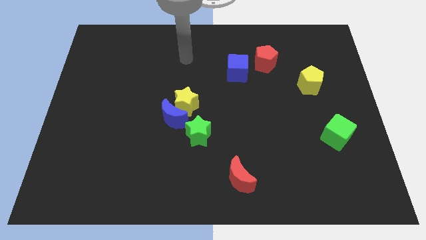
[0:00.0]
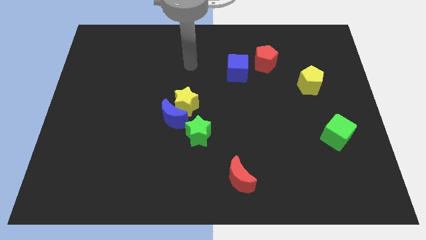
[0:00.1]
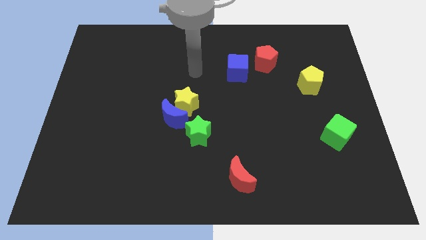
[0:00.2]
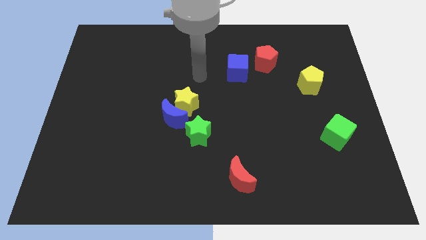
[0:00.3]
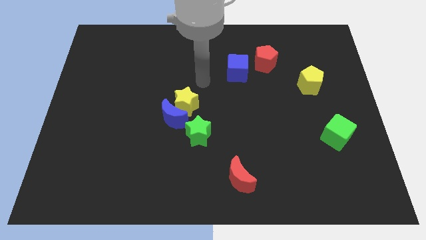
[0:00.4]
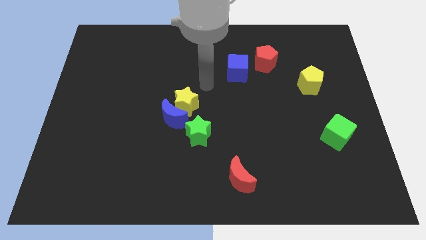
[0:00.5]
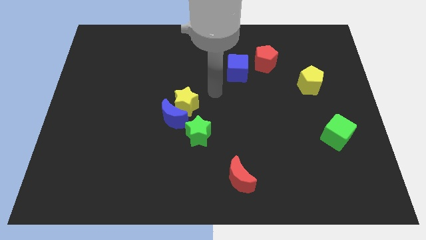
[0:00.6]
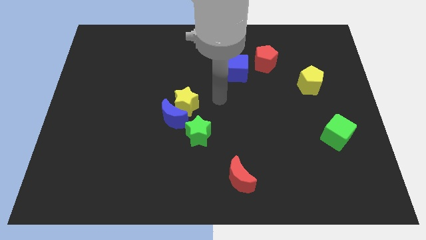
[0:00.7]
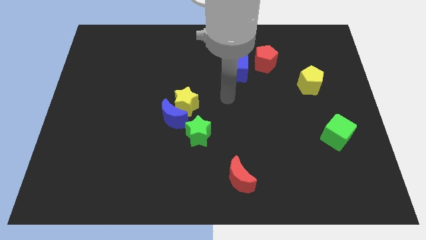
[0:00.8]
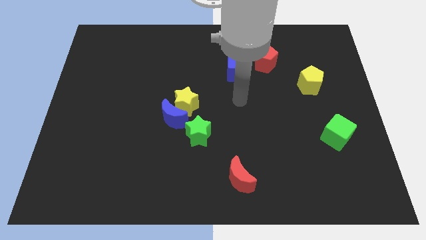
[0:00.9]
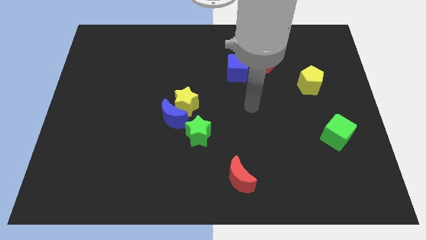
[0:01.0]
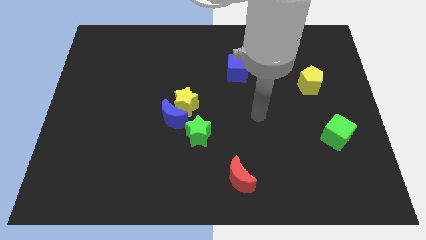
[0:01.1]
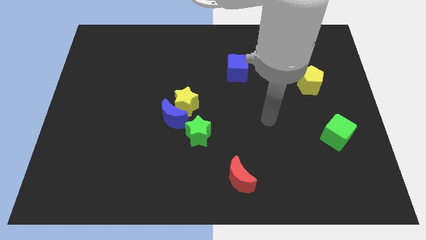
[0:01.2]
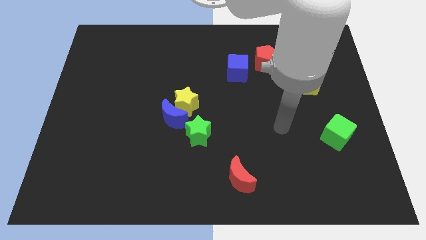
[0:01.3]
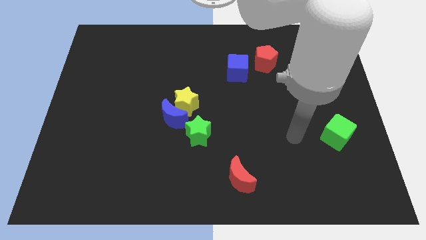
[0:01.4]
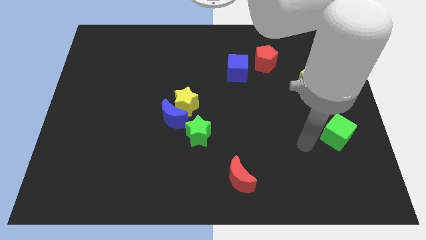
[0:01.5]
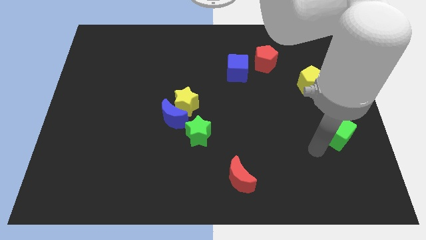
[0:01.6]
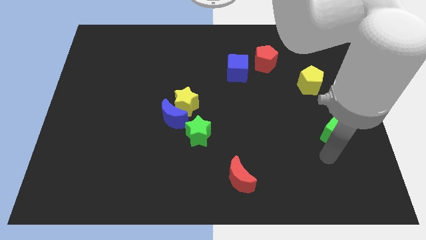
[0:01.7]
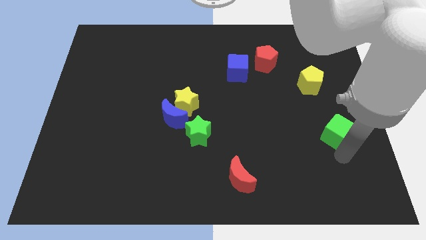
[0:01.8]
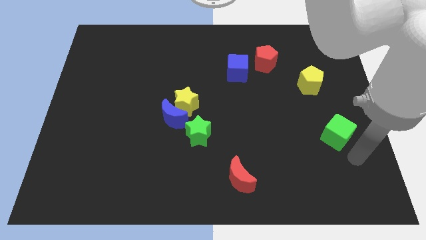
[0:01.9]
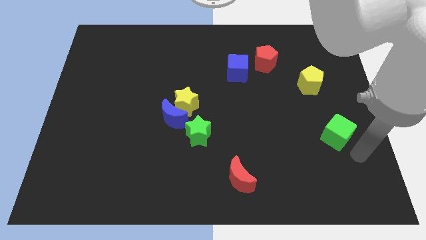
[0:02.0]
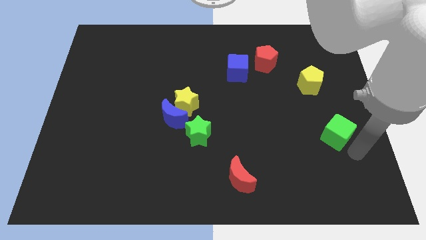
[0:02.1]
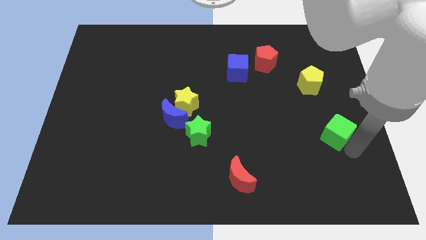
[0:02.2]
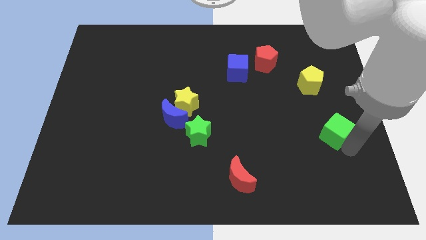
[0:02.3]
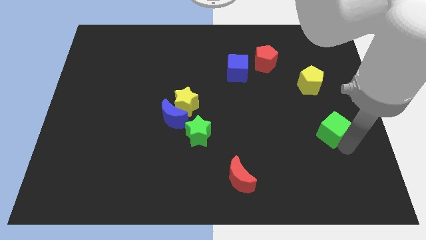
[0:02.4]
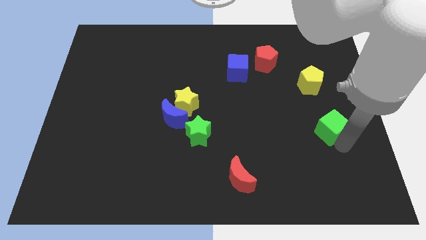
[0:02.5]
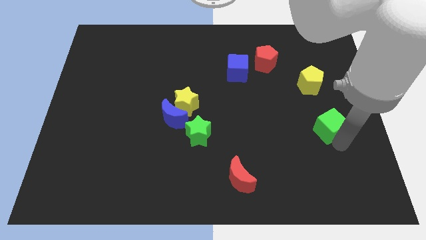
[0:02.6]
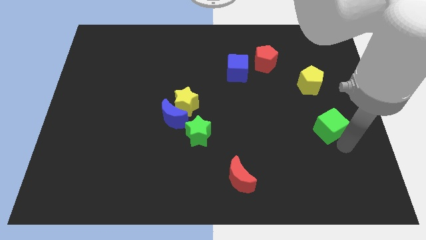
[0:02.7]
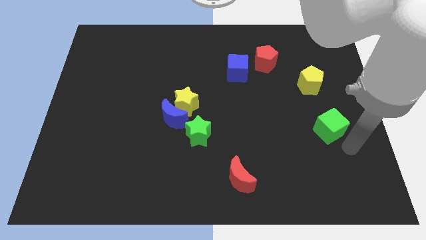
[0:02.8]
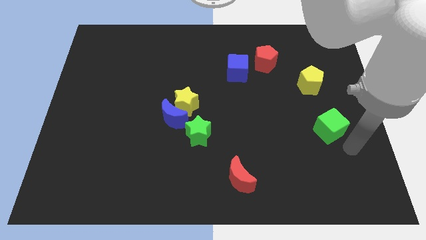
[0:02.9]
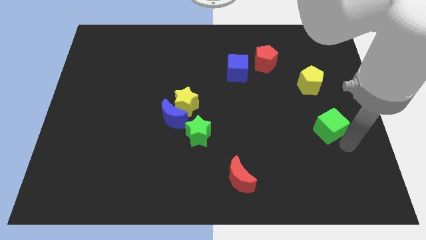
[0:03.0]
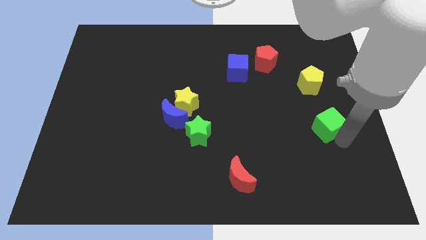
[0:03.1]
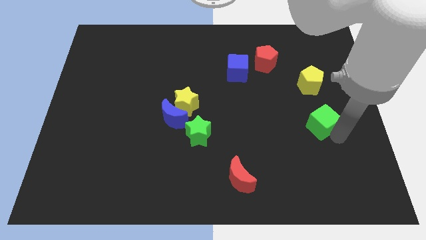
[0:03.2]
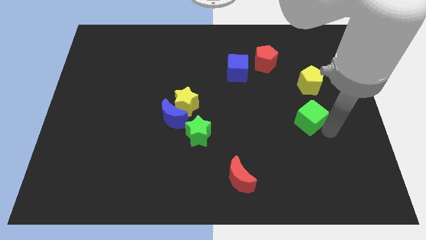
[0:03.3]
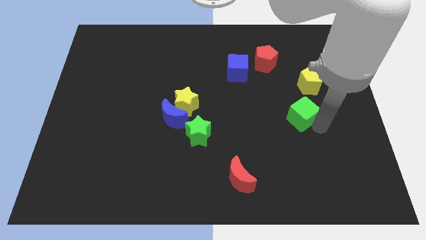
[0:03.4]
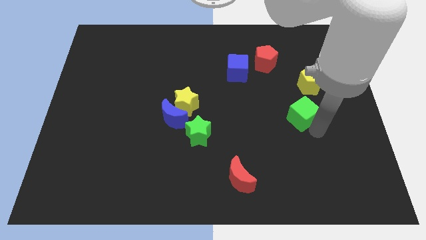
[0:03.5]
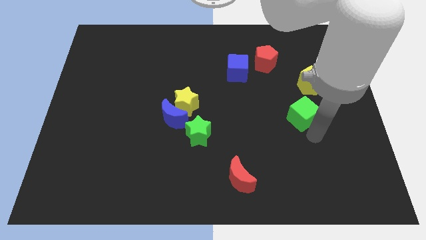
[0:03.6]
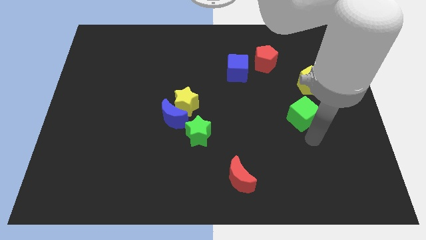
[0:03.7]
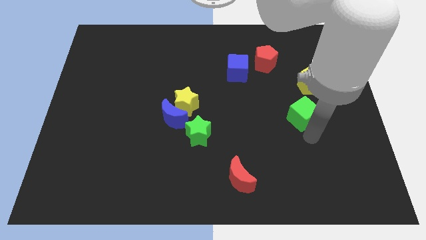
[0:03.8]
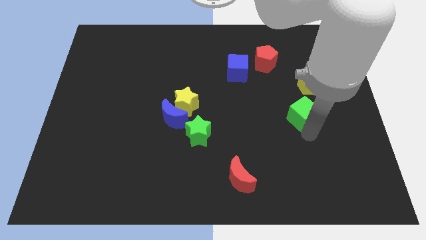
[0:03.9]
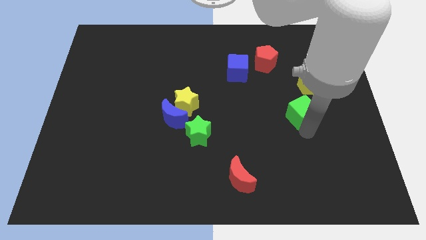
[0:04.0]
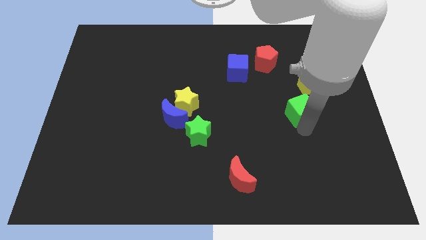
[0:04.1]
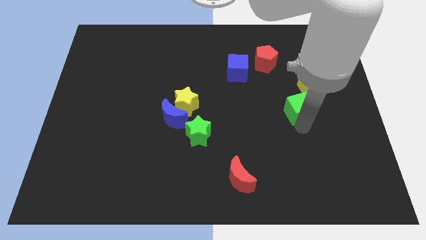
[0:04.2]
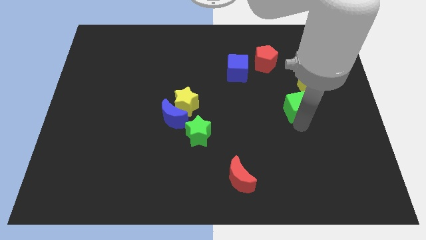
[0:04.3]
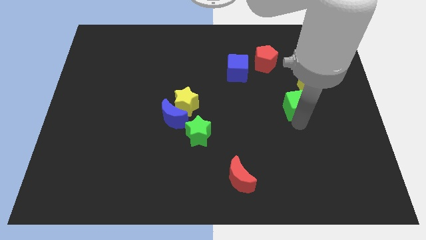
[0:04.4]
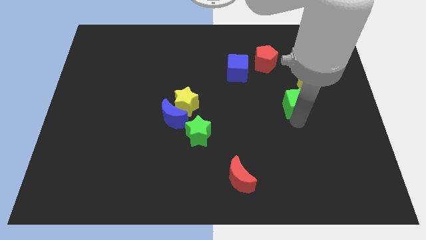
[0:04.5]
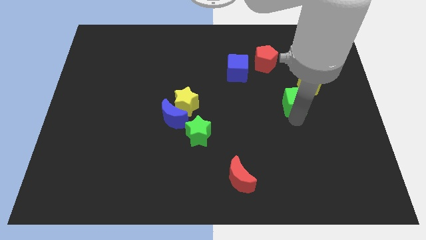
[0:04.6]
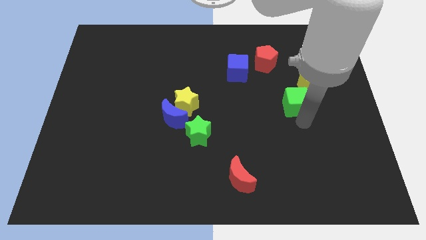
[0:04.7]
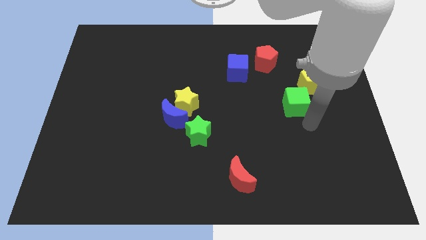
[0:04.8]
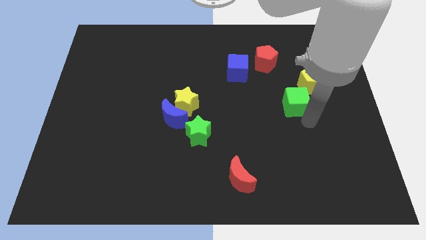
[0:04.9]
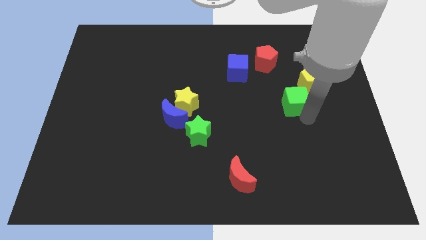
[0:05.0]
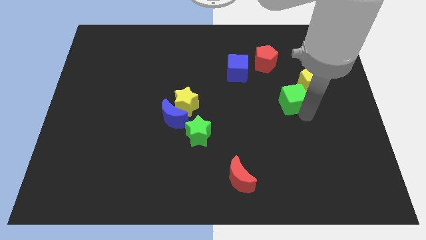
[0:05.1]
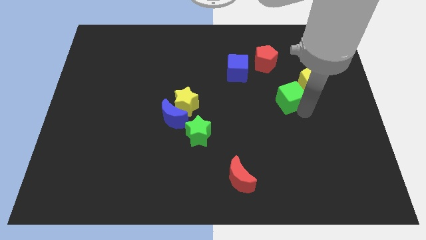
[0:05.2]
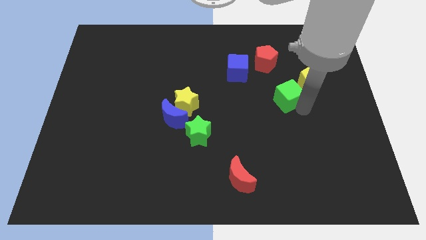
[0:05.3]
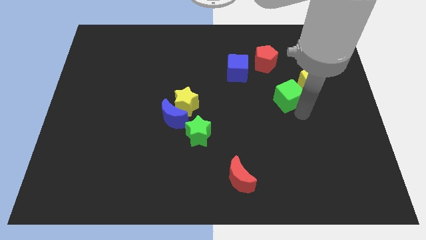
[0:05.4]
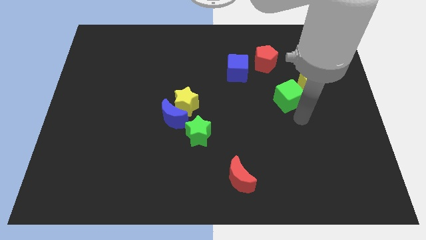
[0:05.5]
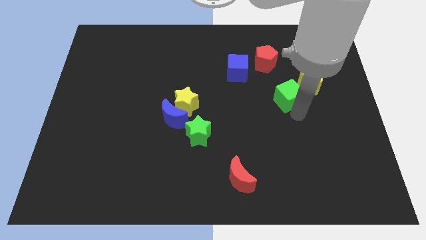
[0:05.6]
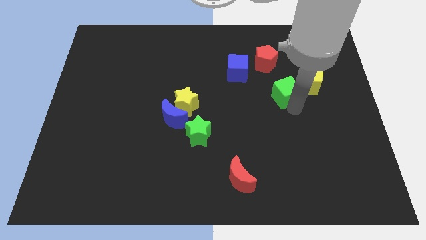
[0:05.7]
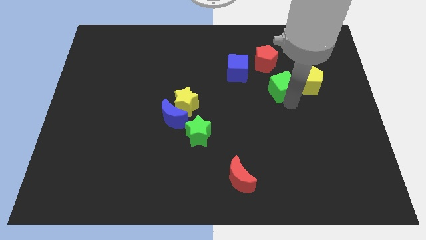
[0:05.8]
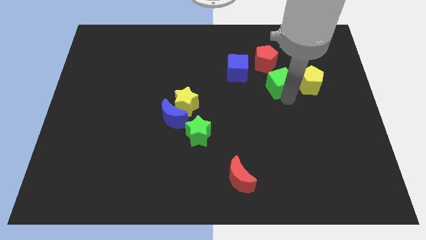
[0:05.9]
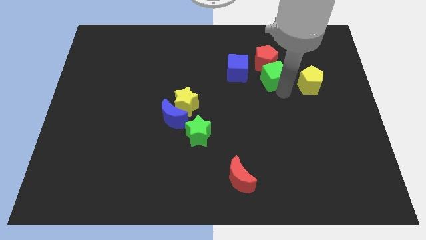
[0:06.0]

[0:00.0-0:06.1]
push the green cube close to the red pentagon

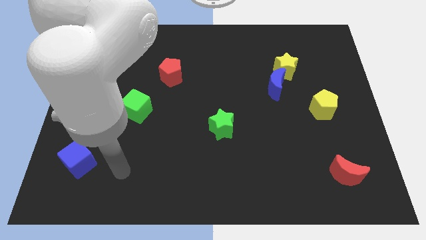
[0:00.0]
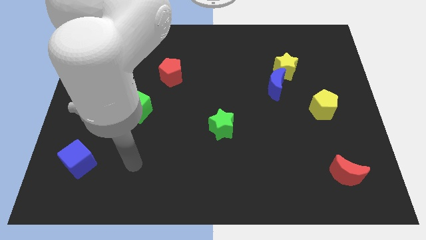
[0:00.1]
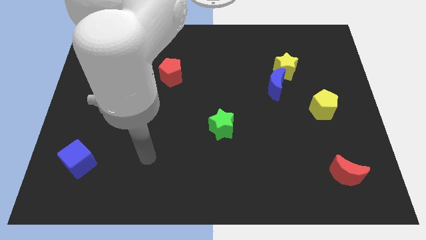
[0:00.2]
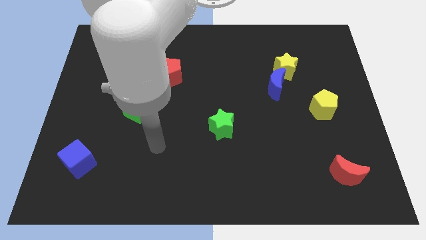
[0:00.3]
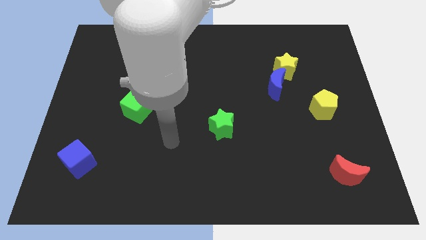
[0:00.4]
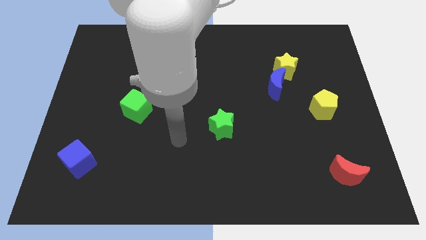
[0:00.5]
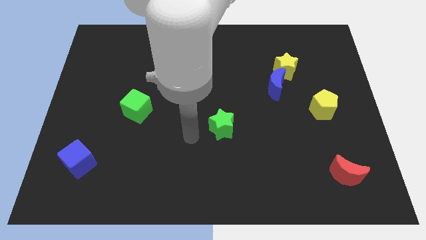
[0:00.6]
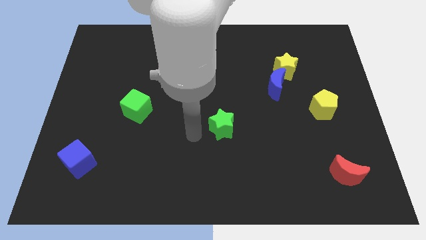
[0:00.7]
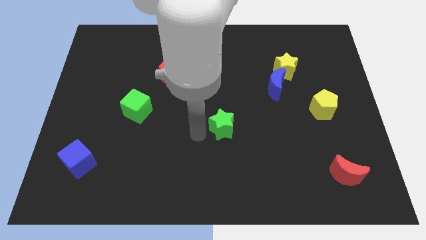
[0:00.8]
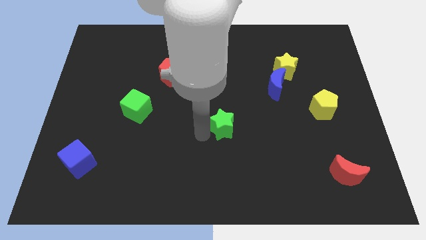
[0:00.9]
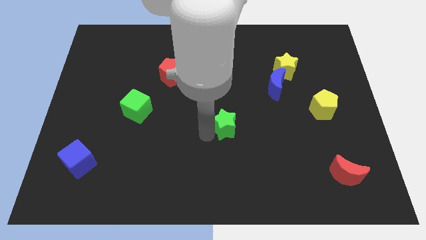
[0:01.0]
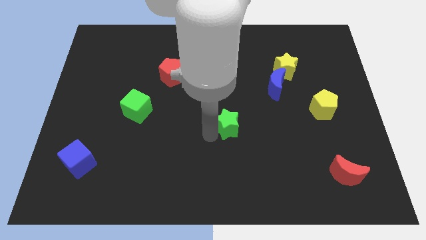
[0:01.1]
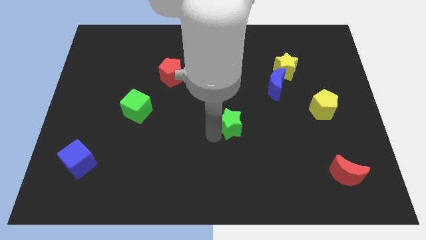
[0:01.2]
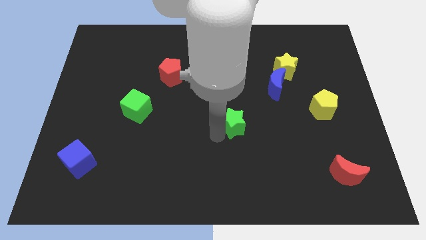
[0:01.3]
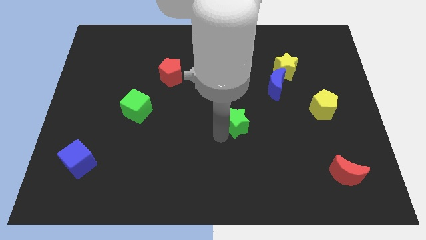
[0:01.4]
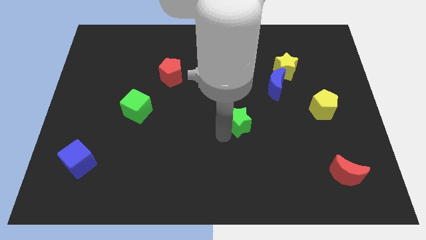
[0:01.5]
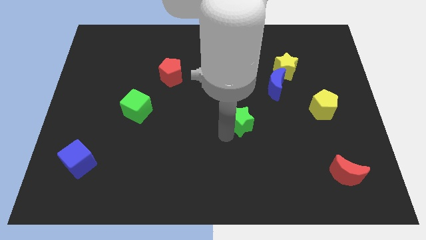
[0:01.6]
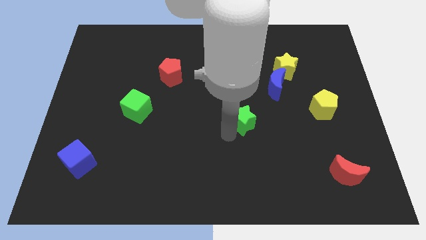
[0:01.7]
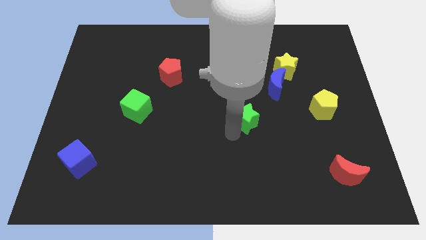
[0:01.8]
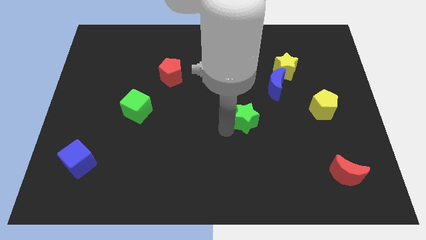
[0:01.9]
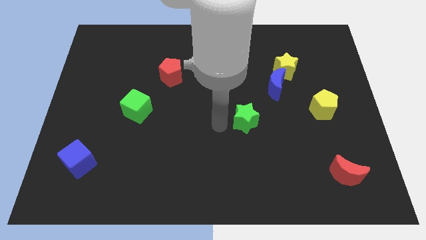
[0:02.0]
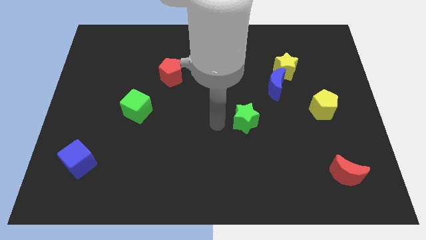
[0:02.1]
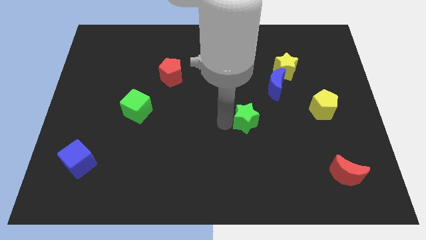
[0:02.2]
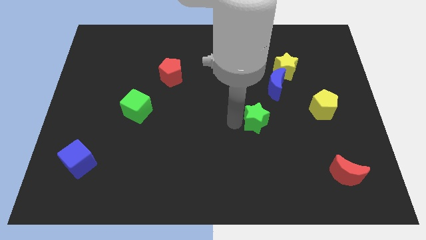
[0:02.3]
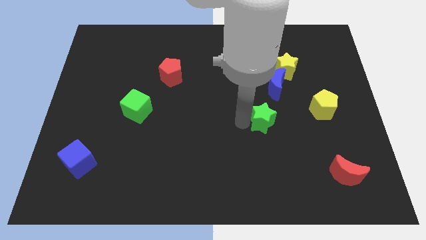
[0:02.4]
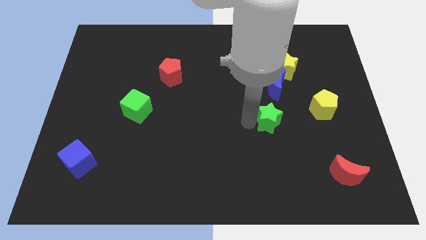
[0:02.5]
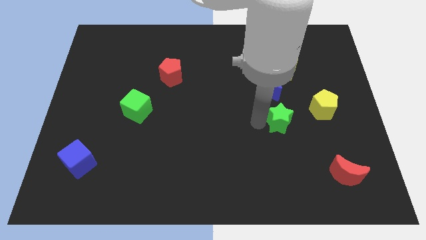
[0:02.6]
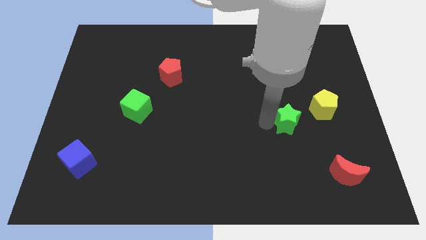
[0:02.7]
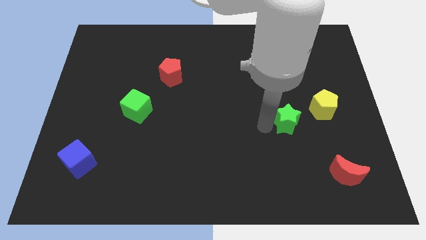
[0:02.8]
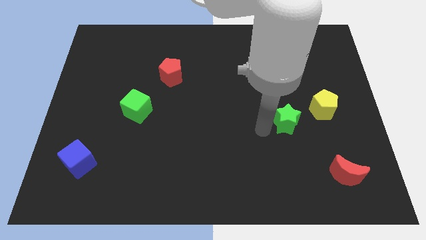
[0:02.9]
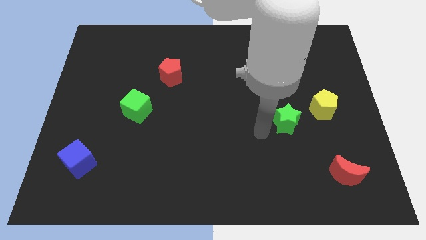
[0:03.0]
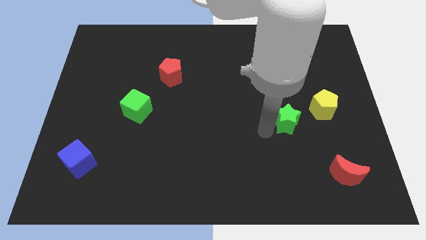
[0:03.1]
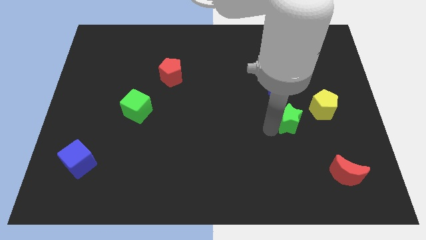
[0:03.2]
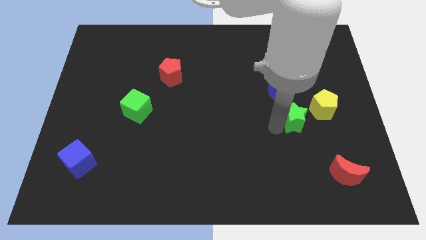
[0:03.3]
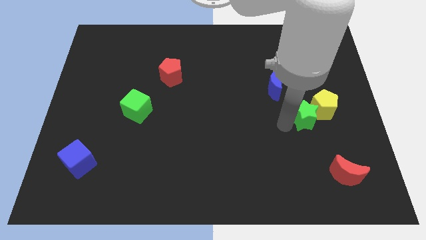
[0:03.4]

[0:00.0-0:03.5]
put the green star to the yellow pentagon
